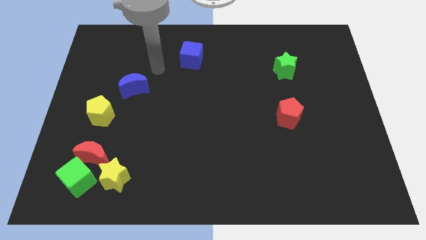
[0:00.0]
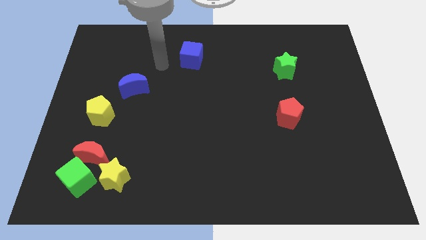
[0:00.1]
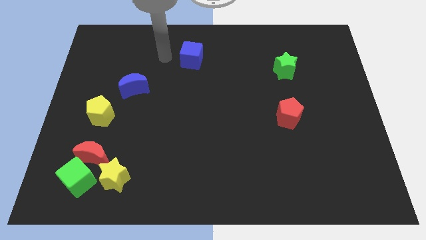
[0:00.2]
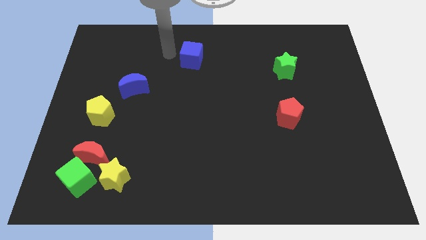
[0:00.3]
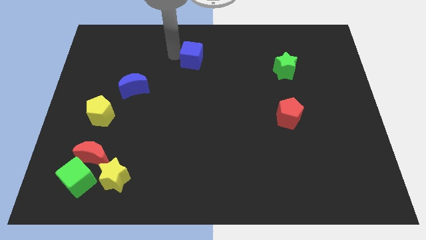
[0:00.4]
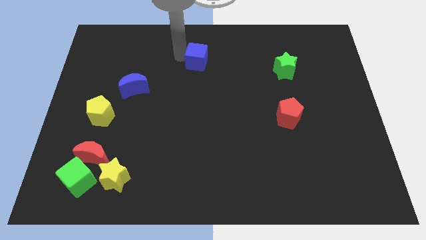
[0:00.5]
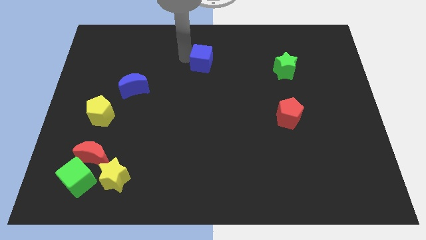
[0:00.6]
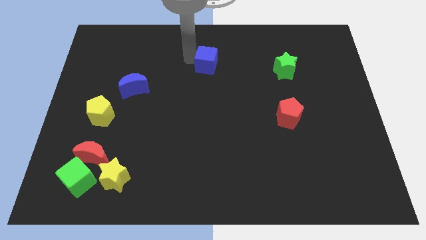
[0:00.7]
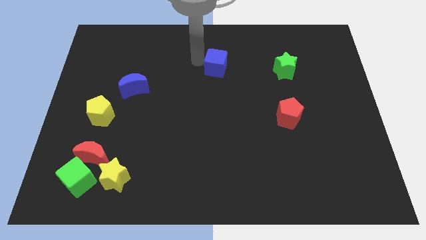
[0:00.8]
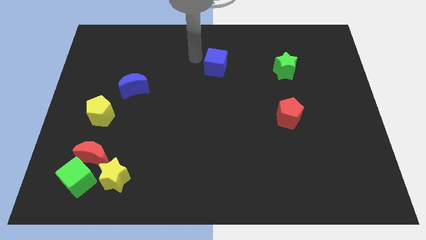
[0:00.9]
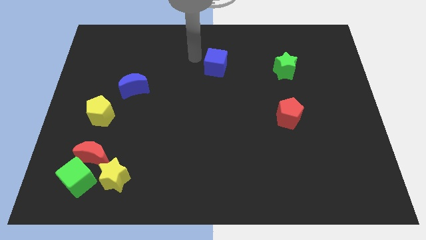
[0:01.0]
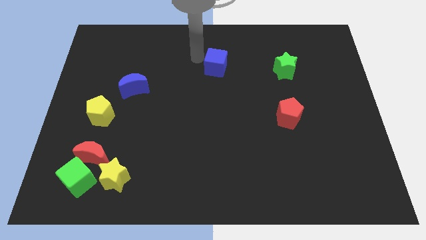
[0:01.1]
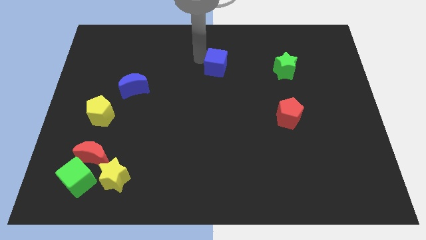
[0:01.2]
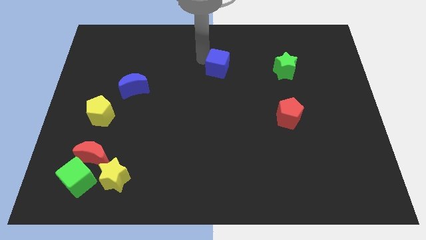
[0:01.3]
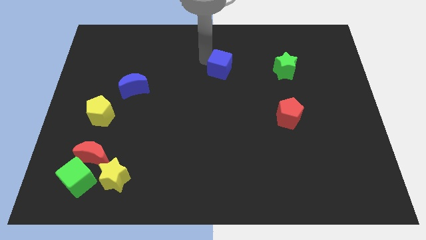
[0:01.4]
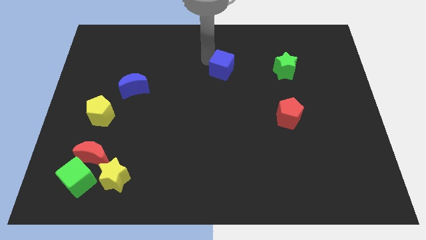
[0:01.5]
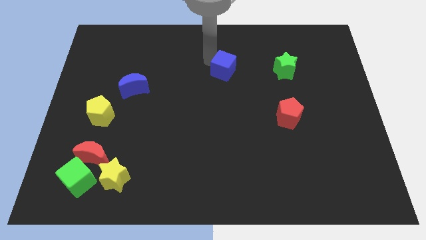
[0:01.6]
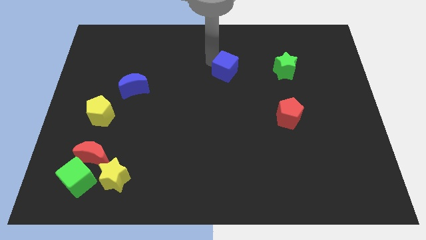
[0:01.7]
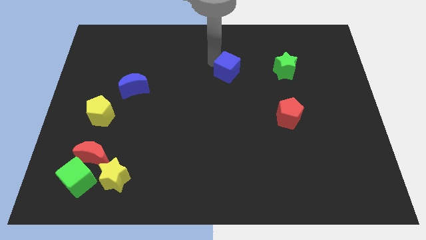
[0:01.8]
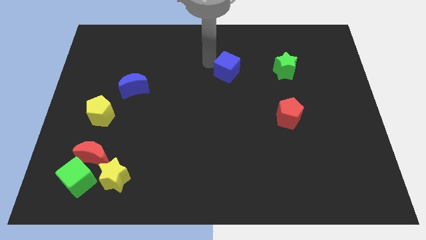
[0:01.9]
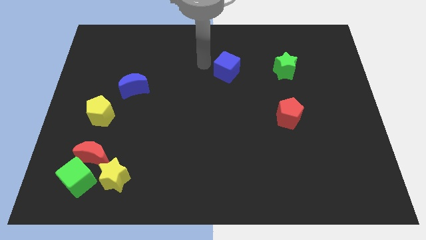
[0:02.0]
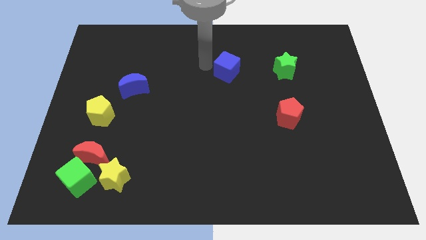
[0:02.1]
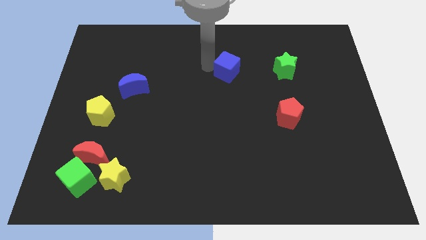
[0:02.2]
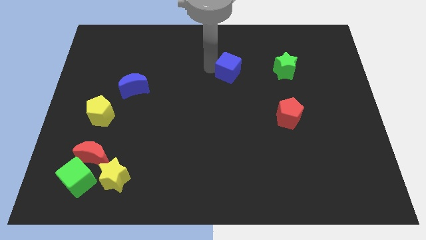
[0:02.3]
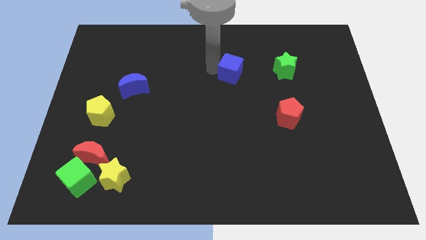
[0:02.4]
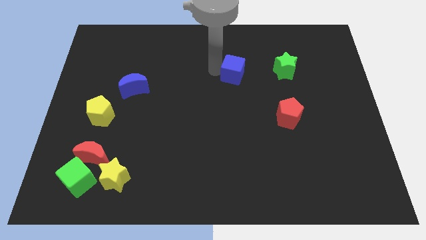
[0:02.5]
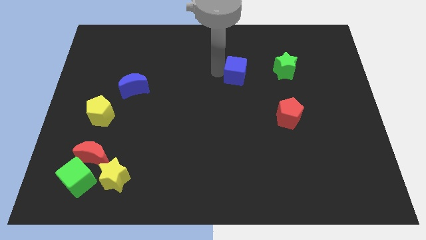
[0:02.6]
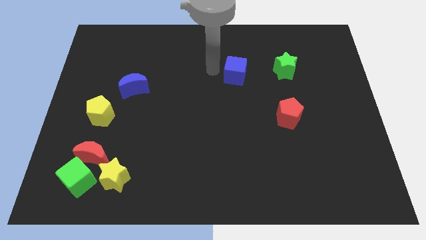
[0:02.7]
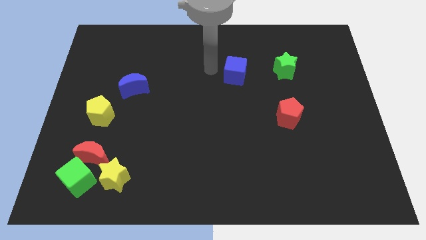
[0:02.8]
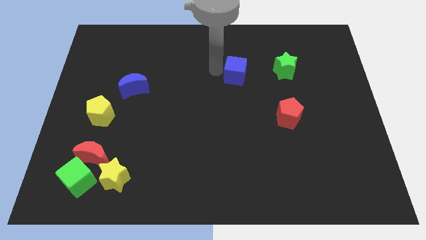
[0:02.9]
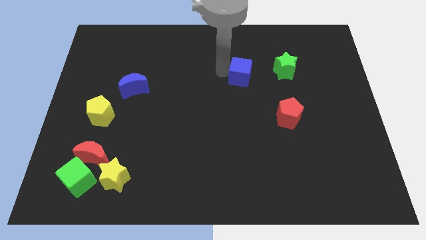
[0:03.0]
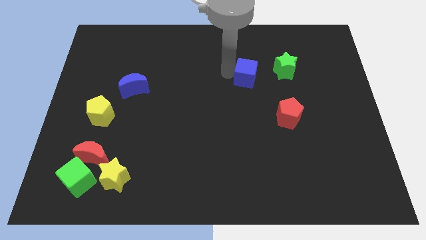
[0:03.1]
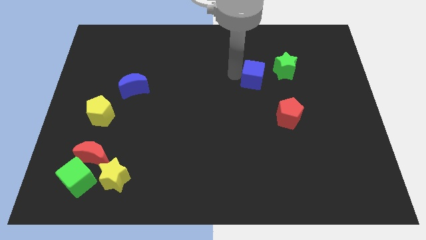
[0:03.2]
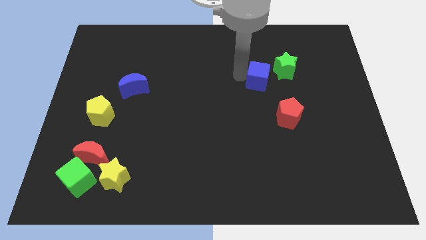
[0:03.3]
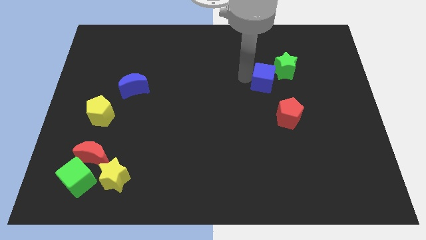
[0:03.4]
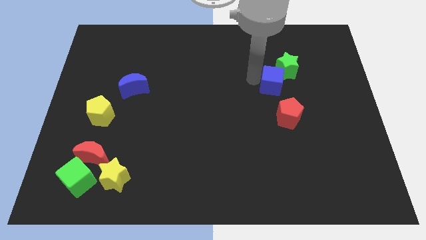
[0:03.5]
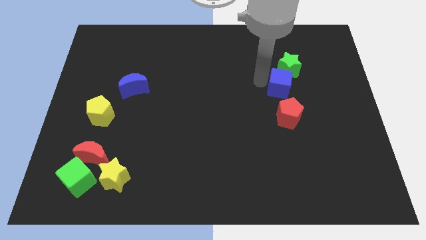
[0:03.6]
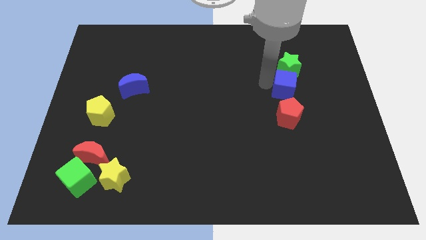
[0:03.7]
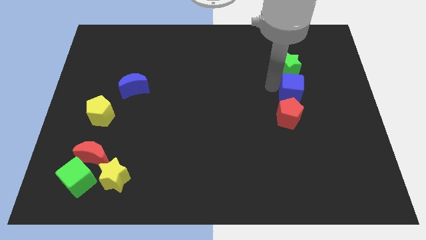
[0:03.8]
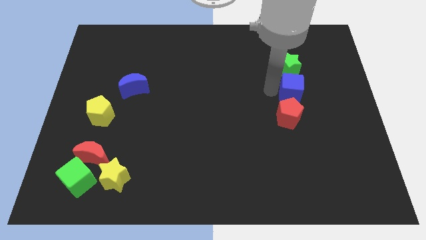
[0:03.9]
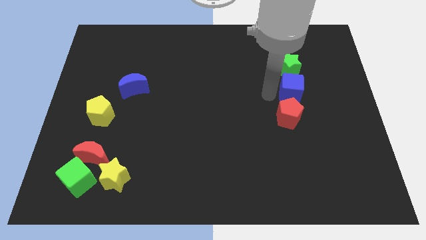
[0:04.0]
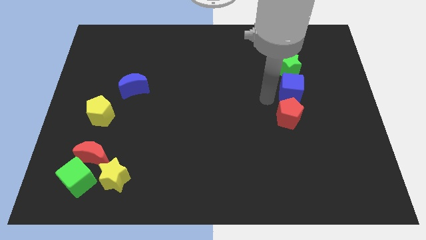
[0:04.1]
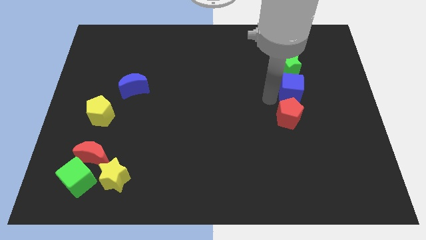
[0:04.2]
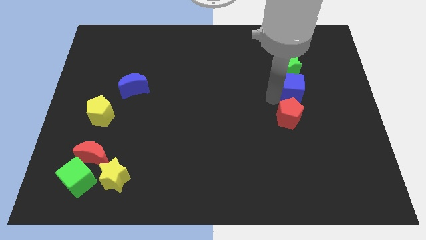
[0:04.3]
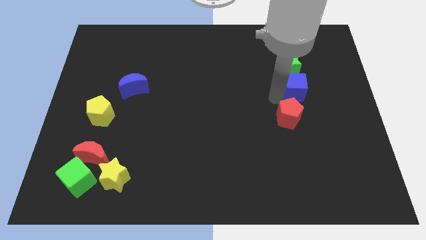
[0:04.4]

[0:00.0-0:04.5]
move the blue cube diagonally down and to the right of the green star

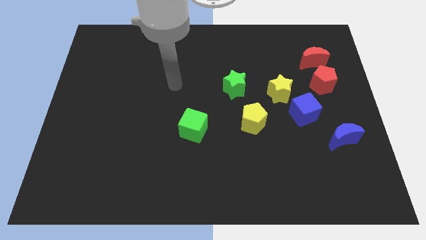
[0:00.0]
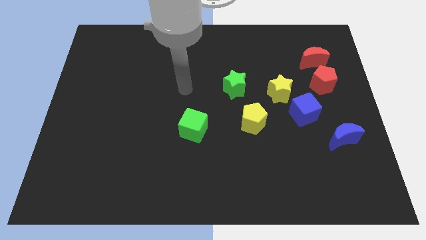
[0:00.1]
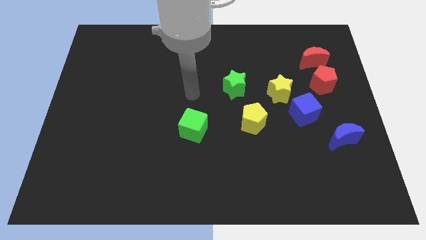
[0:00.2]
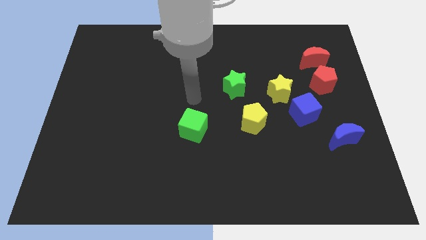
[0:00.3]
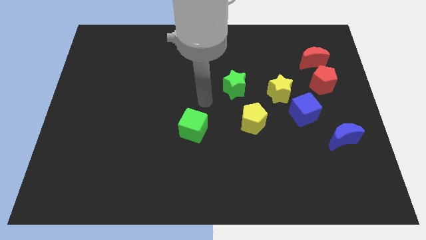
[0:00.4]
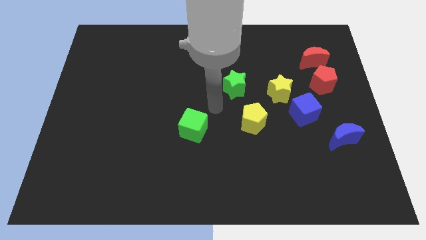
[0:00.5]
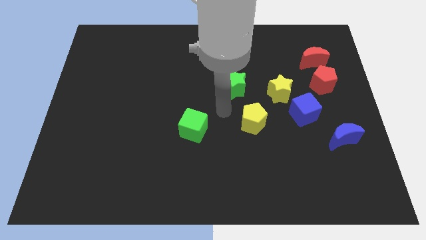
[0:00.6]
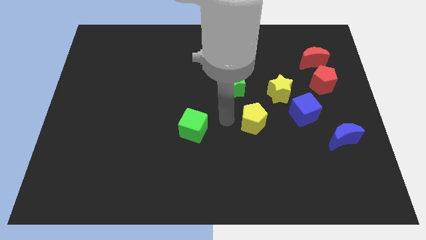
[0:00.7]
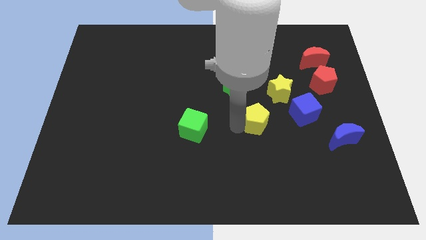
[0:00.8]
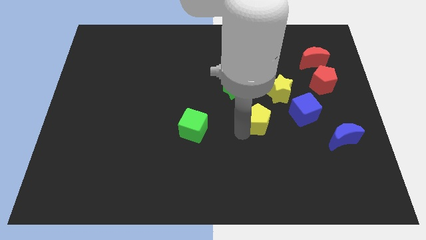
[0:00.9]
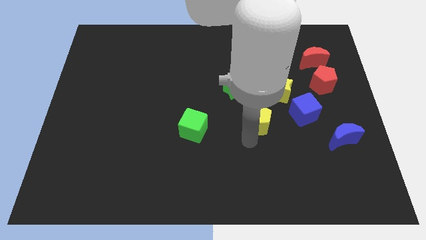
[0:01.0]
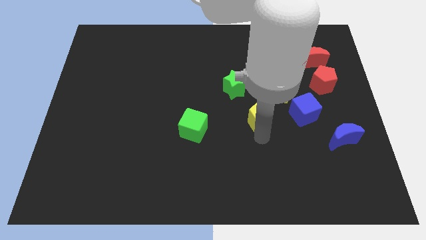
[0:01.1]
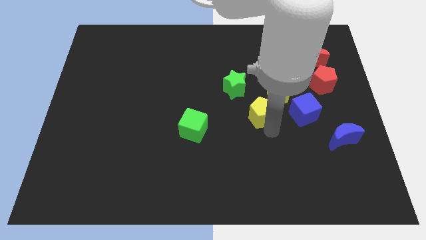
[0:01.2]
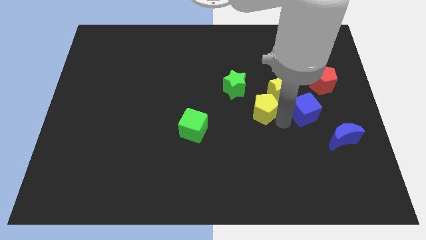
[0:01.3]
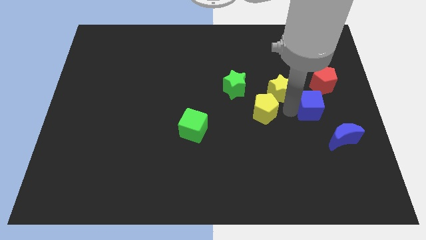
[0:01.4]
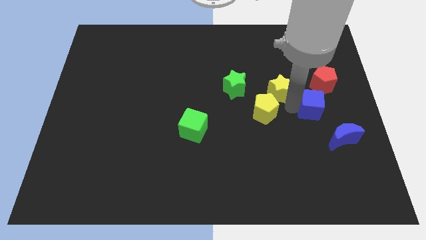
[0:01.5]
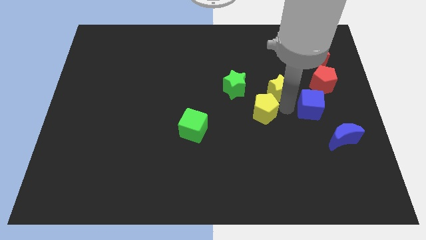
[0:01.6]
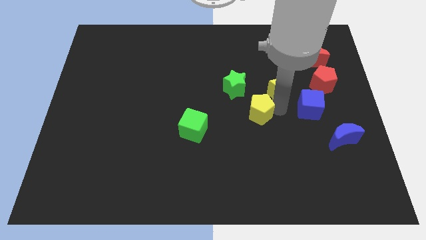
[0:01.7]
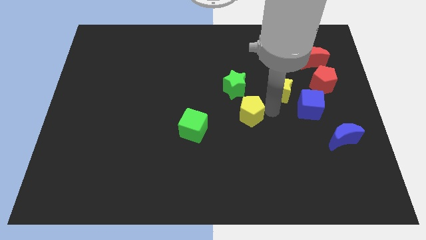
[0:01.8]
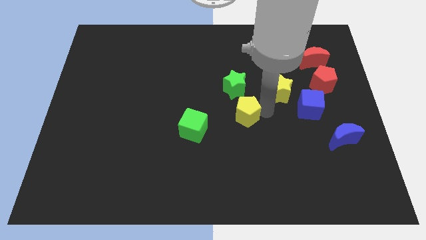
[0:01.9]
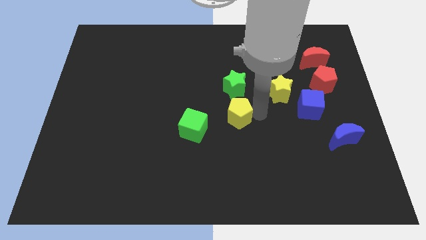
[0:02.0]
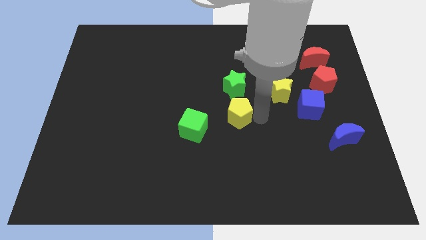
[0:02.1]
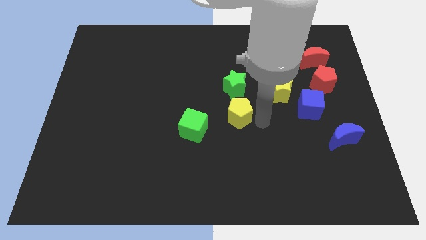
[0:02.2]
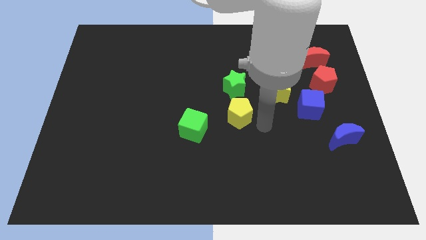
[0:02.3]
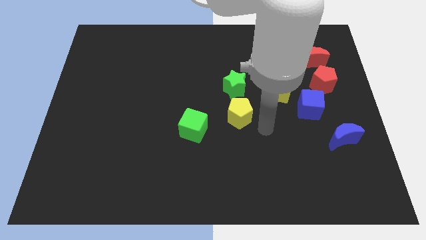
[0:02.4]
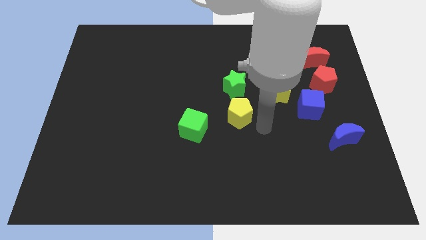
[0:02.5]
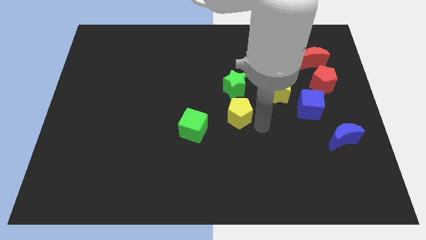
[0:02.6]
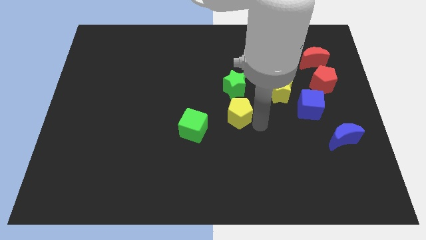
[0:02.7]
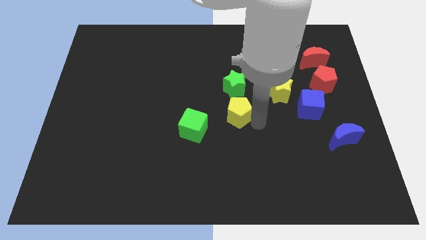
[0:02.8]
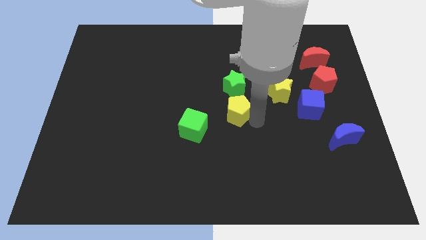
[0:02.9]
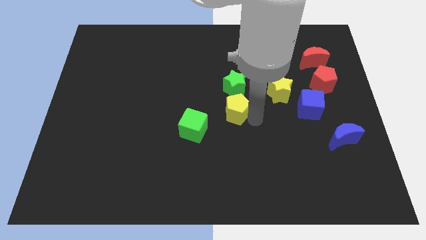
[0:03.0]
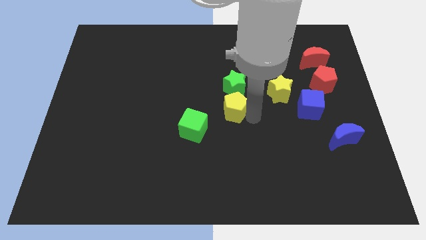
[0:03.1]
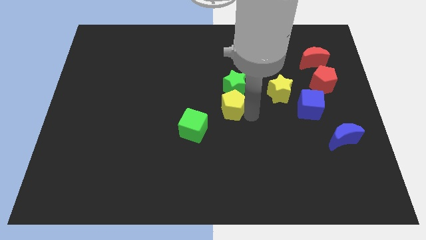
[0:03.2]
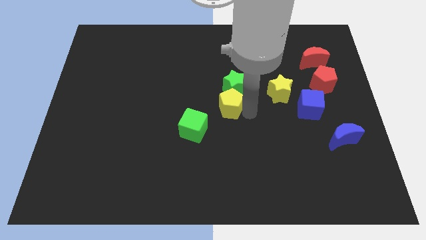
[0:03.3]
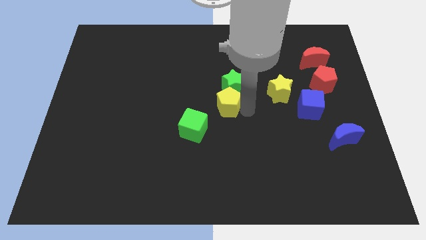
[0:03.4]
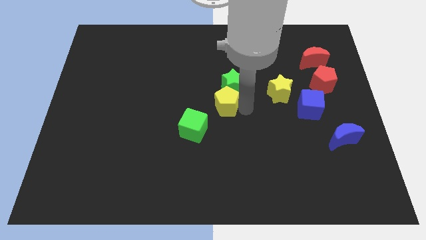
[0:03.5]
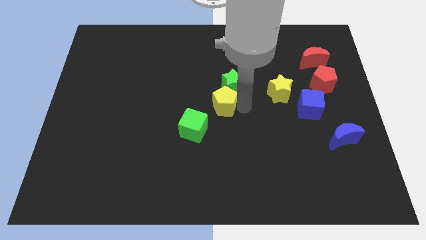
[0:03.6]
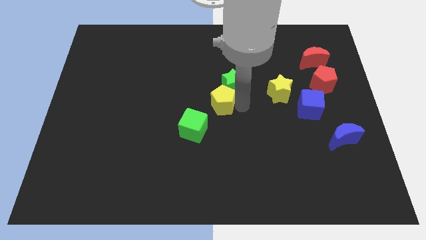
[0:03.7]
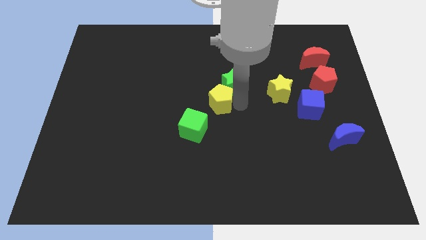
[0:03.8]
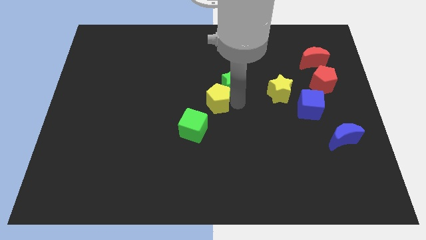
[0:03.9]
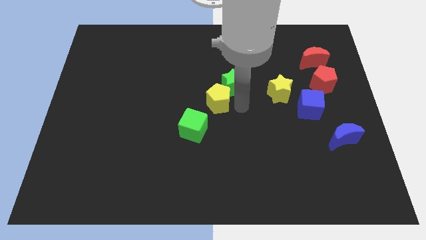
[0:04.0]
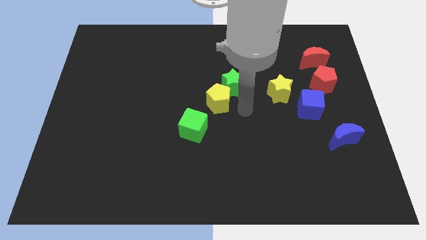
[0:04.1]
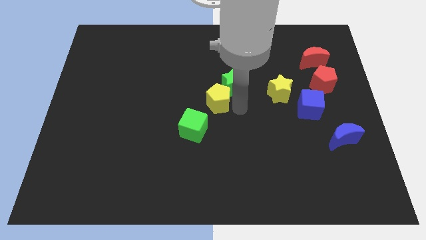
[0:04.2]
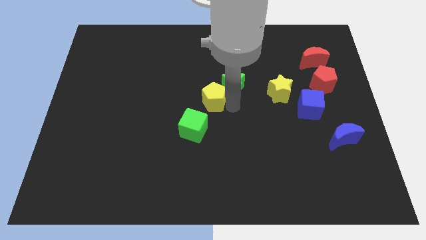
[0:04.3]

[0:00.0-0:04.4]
move the yellow pentagon to the top side of the green cube
